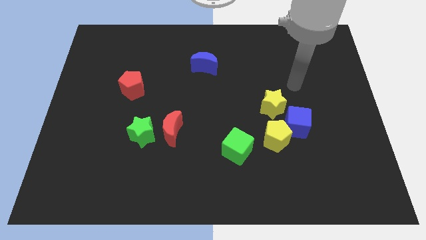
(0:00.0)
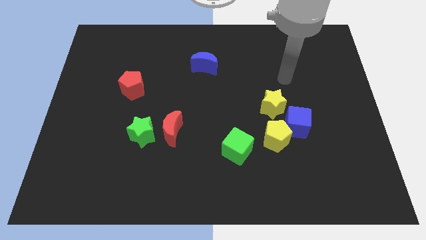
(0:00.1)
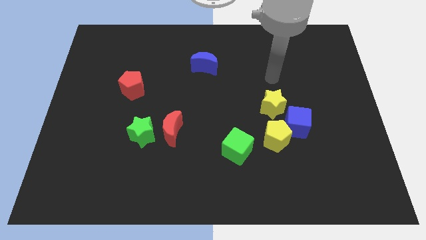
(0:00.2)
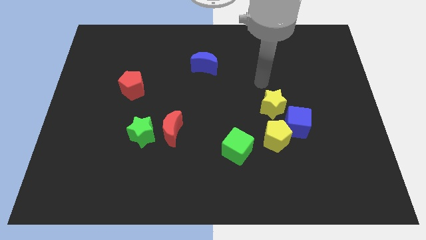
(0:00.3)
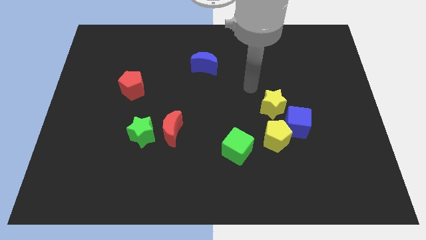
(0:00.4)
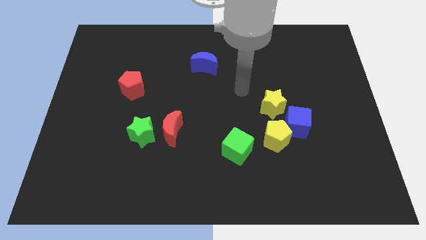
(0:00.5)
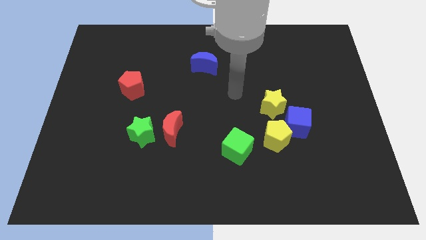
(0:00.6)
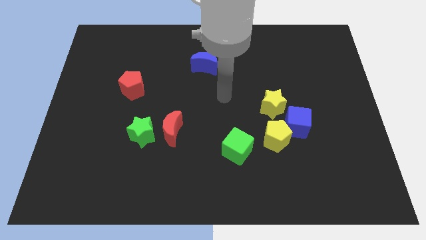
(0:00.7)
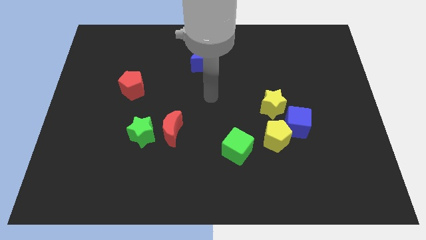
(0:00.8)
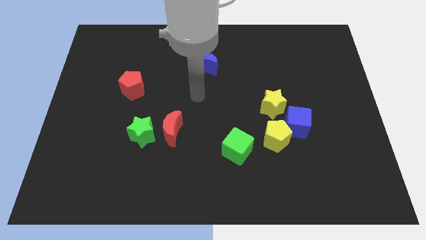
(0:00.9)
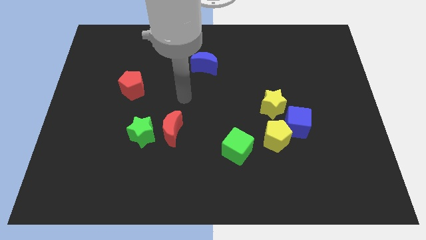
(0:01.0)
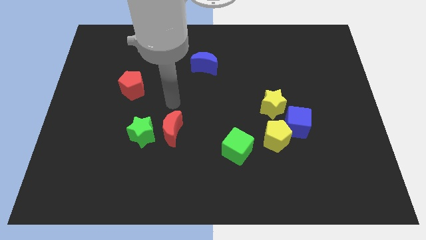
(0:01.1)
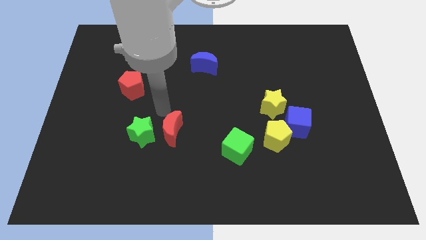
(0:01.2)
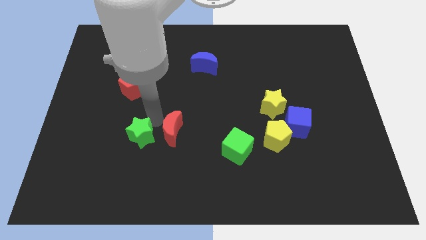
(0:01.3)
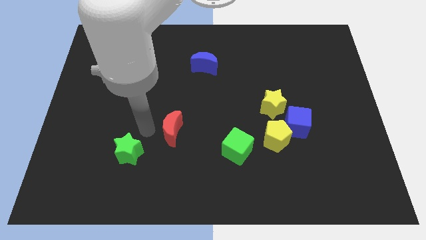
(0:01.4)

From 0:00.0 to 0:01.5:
pull the red moon apart from the green star

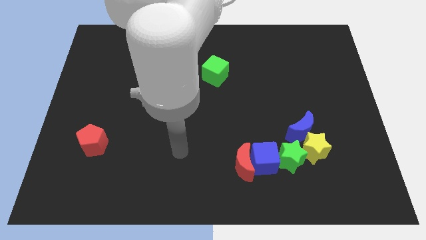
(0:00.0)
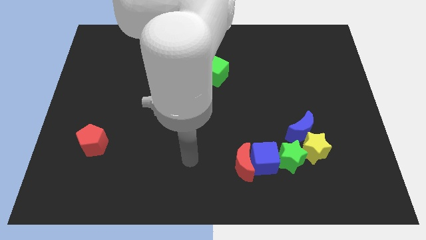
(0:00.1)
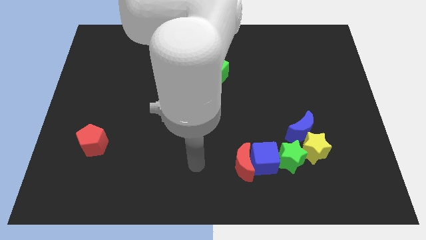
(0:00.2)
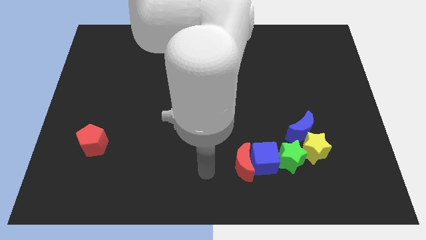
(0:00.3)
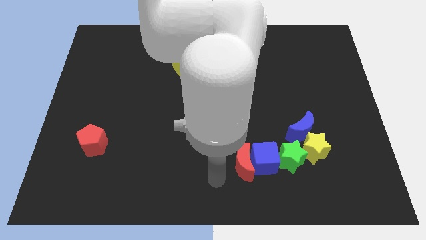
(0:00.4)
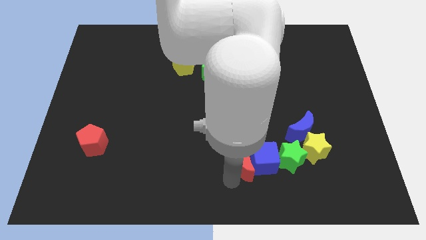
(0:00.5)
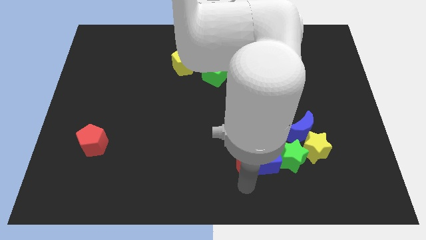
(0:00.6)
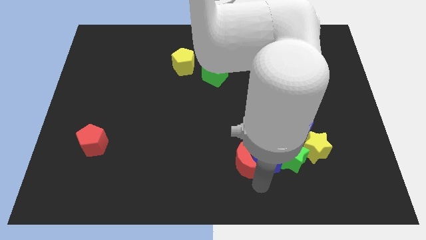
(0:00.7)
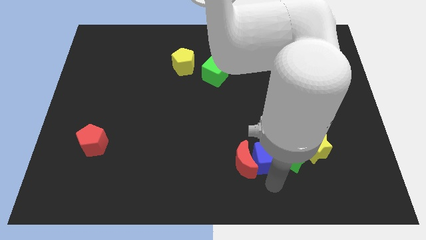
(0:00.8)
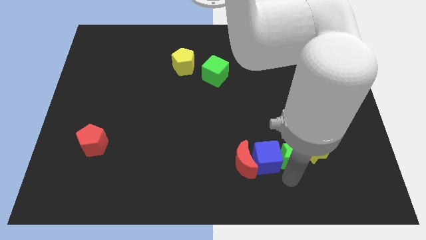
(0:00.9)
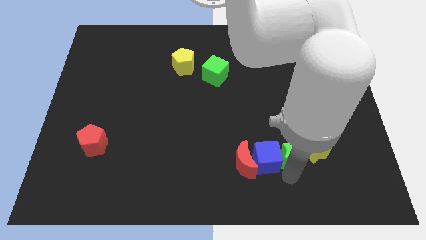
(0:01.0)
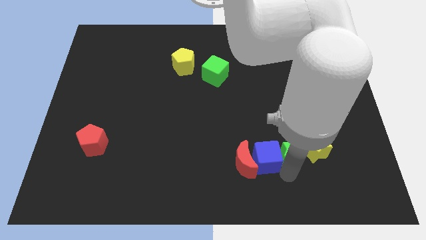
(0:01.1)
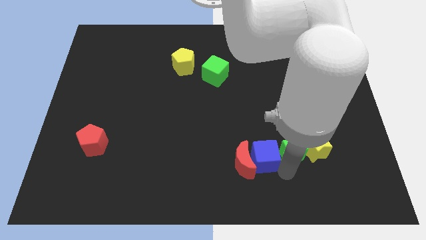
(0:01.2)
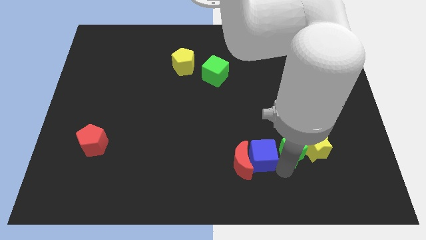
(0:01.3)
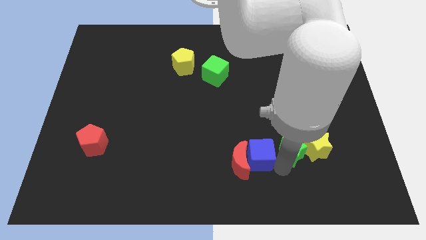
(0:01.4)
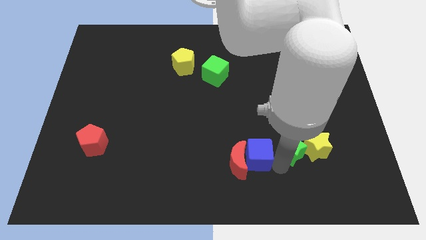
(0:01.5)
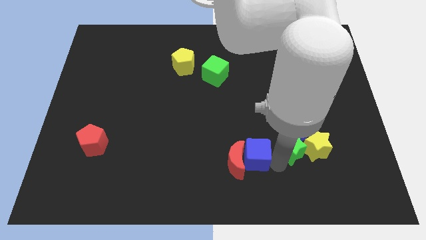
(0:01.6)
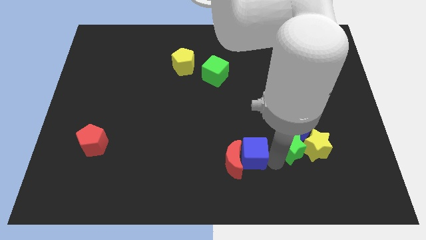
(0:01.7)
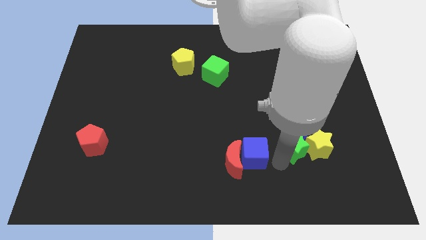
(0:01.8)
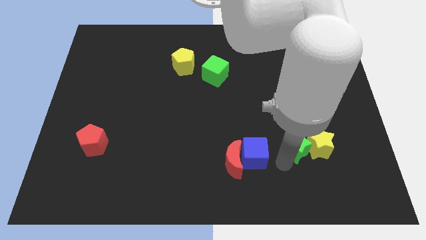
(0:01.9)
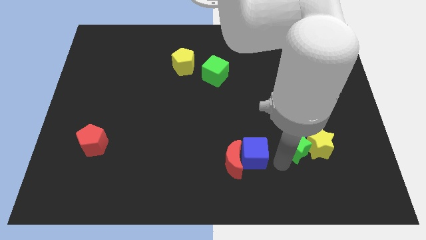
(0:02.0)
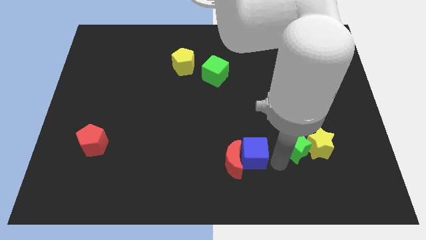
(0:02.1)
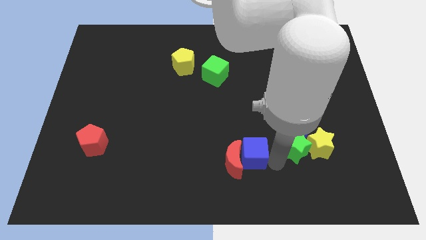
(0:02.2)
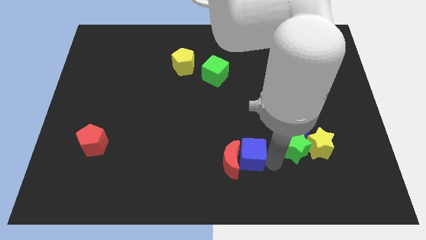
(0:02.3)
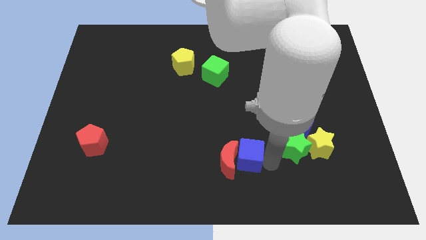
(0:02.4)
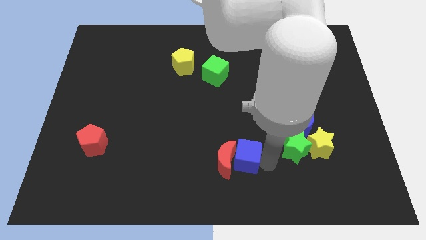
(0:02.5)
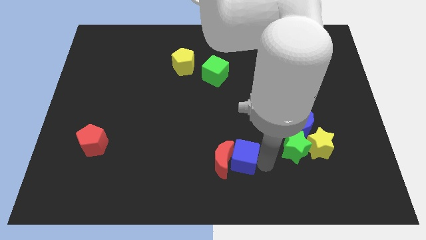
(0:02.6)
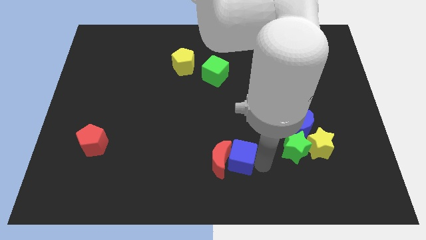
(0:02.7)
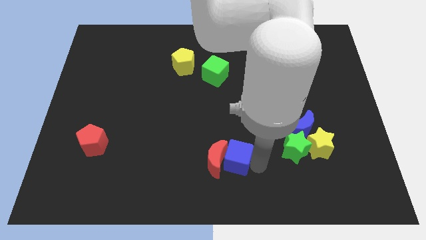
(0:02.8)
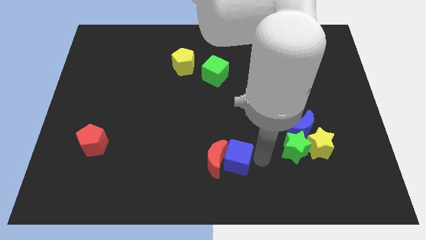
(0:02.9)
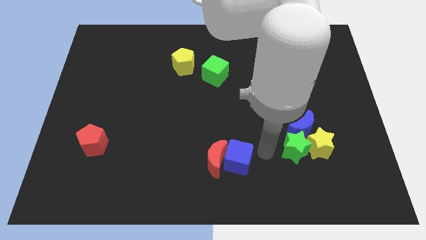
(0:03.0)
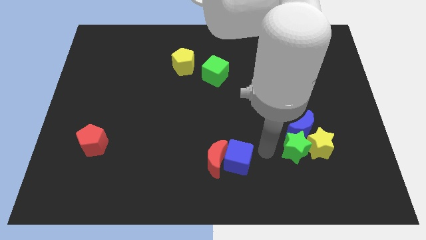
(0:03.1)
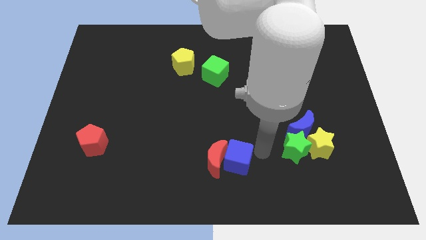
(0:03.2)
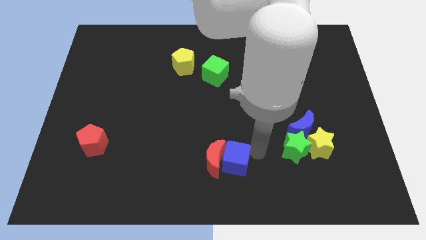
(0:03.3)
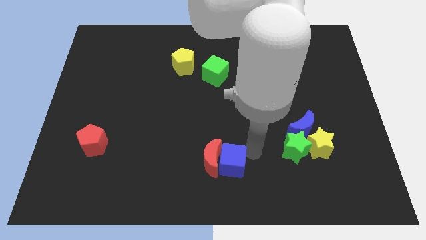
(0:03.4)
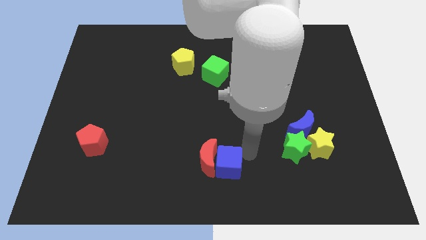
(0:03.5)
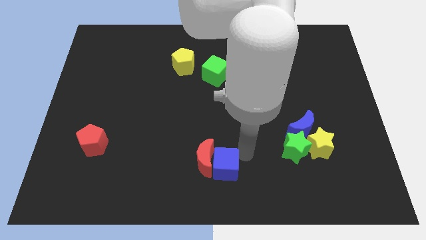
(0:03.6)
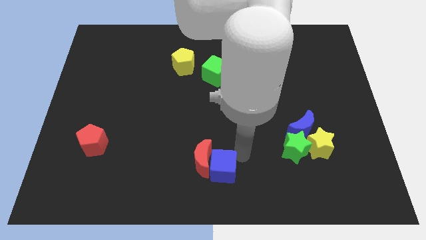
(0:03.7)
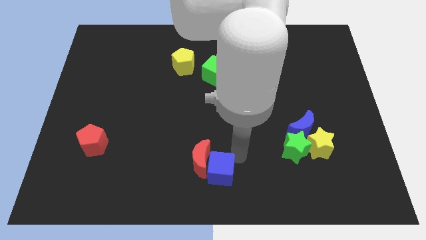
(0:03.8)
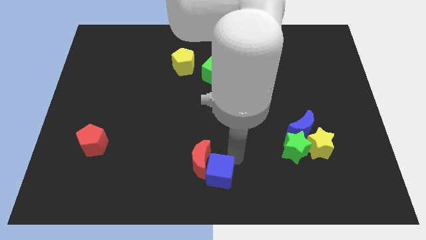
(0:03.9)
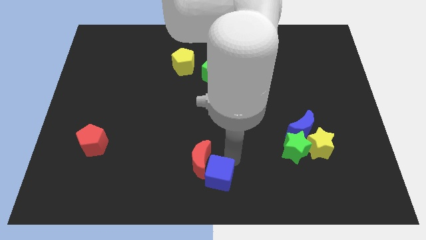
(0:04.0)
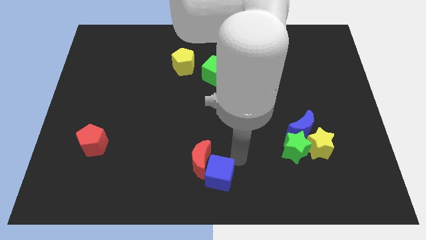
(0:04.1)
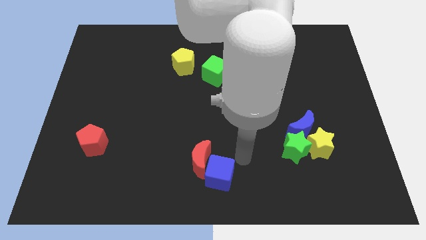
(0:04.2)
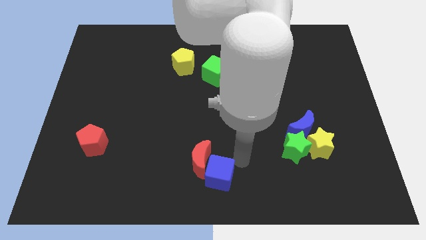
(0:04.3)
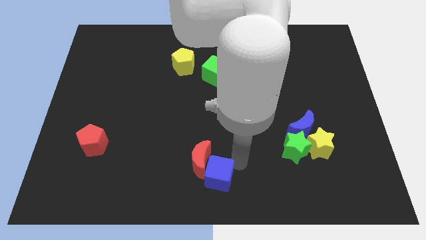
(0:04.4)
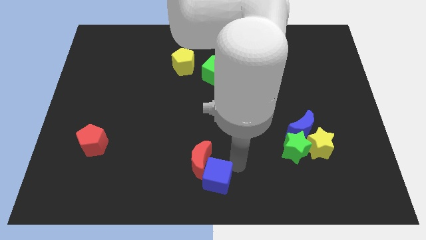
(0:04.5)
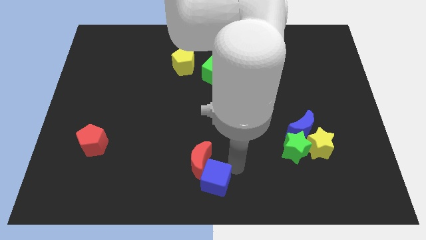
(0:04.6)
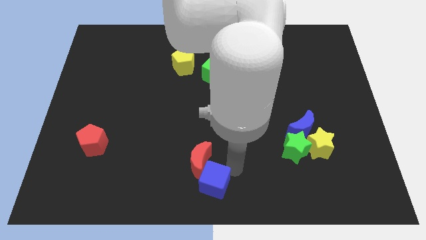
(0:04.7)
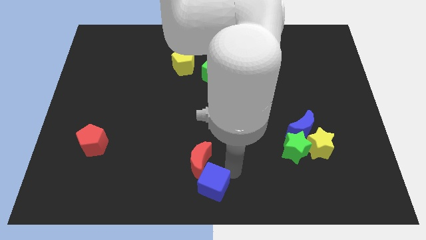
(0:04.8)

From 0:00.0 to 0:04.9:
pull the blue cube apart from the red moon and green star

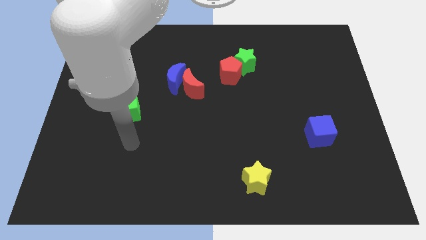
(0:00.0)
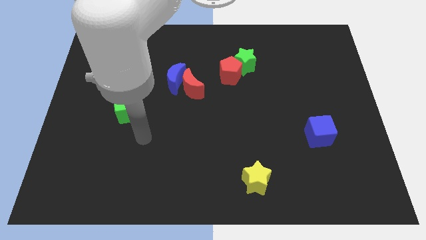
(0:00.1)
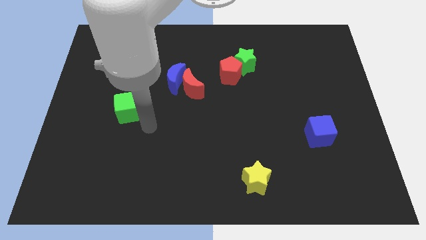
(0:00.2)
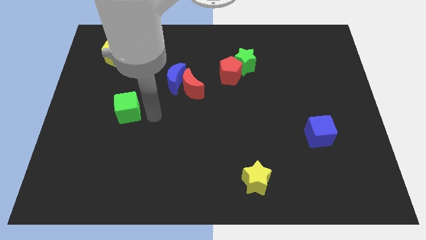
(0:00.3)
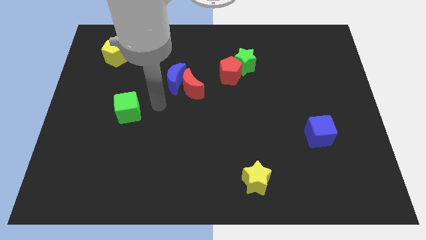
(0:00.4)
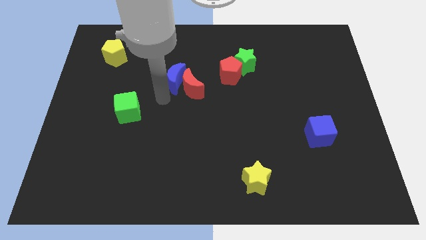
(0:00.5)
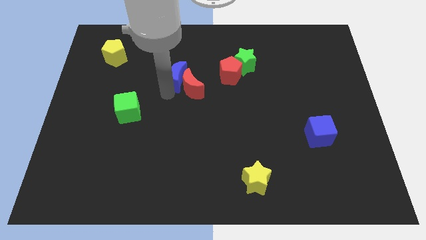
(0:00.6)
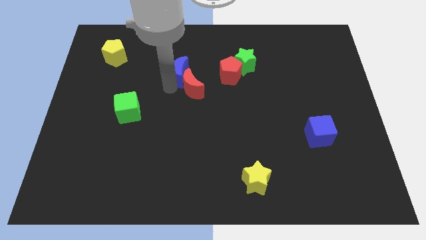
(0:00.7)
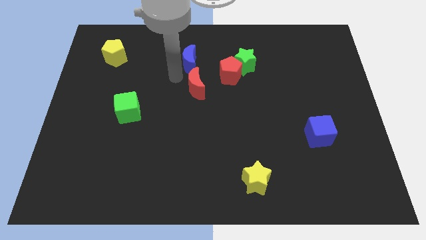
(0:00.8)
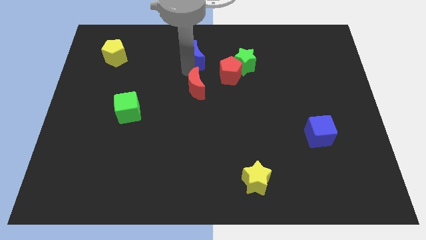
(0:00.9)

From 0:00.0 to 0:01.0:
move the red moon away from the blue moon

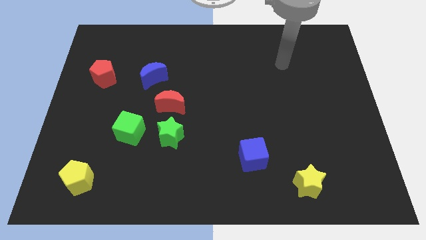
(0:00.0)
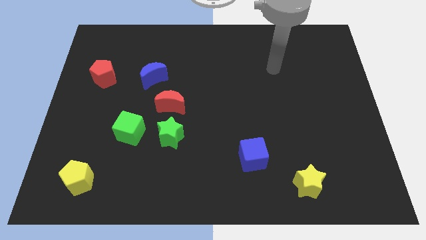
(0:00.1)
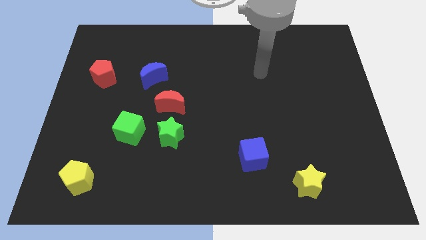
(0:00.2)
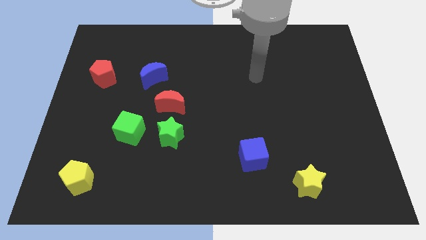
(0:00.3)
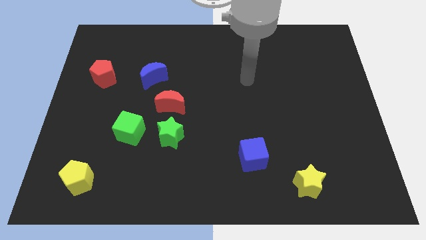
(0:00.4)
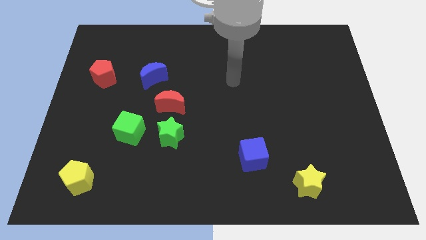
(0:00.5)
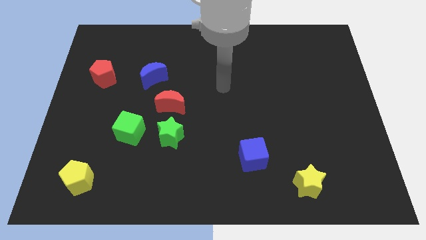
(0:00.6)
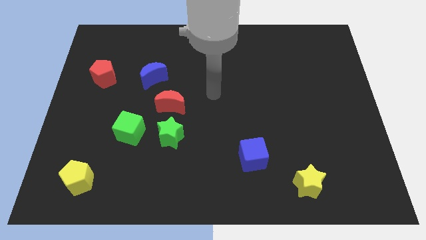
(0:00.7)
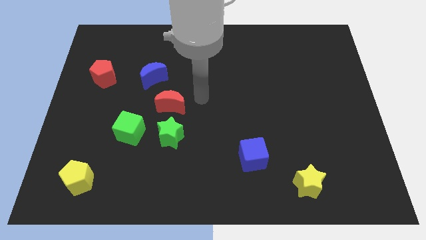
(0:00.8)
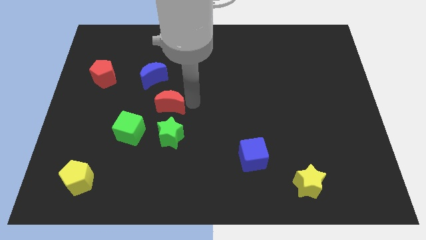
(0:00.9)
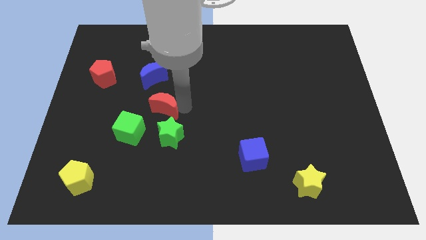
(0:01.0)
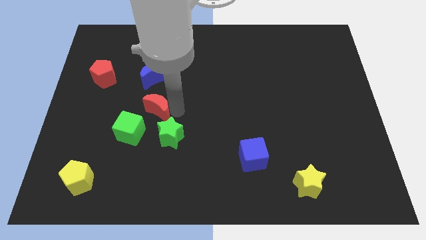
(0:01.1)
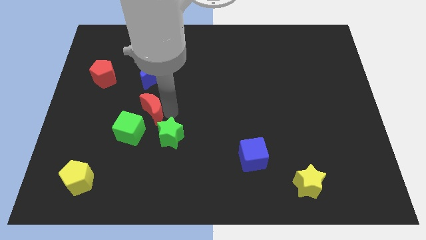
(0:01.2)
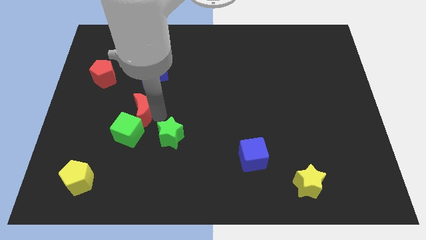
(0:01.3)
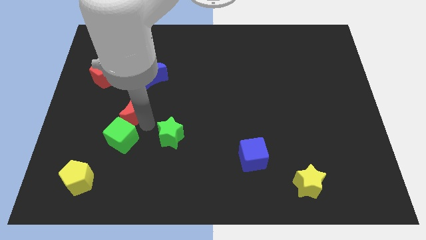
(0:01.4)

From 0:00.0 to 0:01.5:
move the green star away from the red moon and green cube

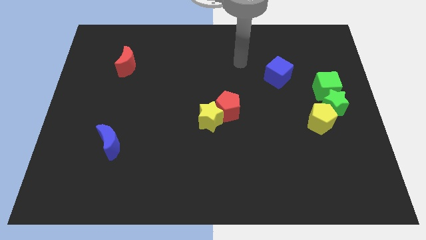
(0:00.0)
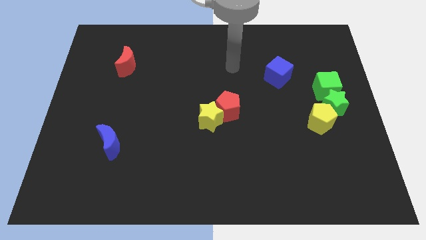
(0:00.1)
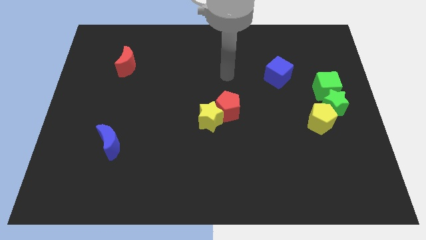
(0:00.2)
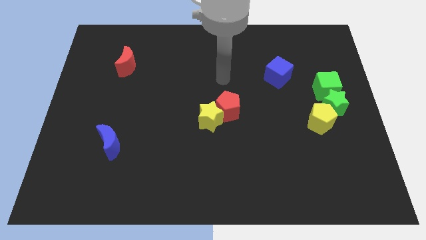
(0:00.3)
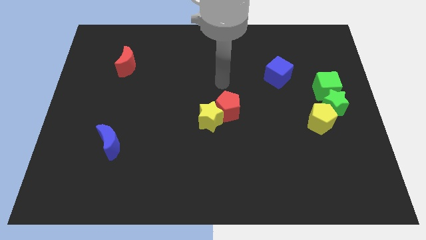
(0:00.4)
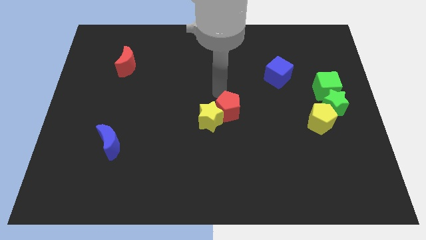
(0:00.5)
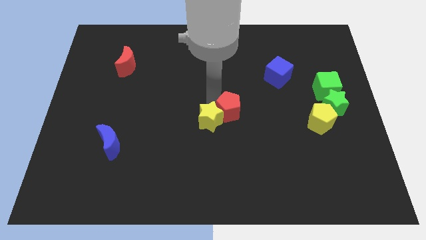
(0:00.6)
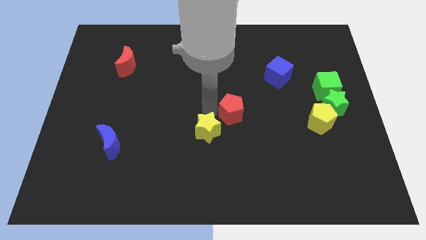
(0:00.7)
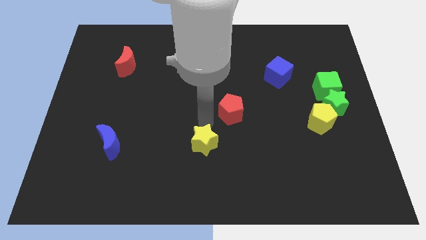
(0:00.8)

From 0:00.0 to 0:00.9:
pull the red pentagon apart from the yellow star
